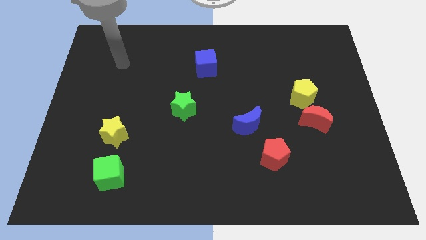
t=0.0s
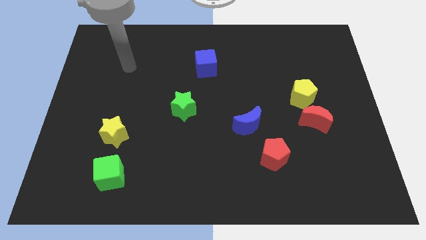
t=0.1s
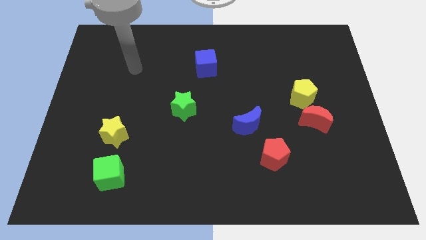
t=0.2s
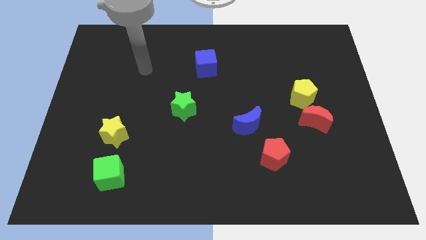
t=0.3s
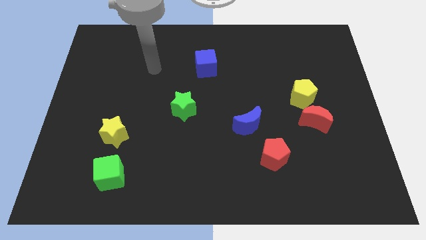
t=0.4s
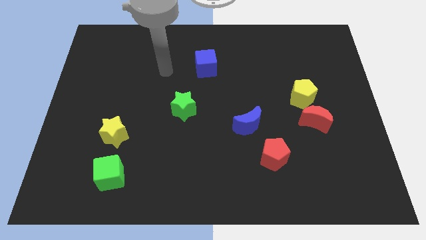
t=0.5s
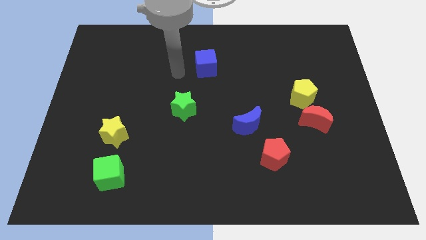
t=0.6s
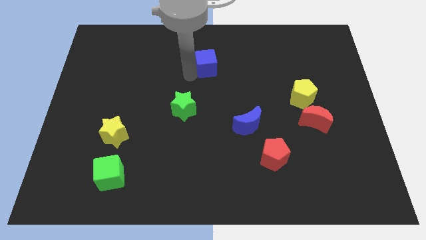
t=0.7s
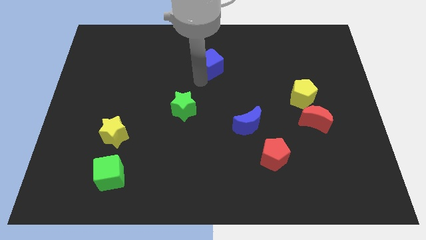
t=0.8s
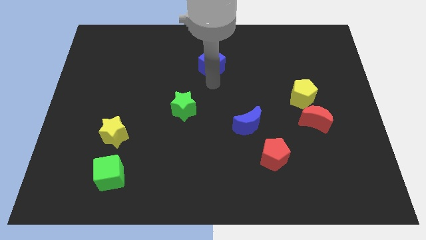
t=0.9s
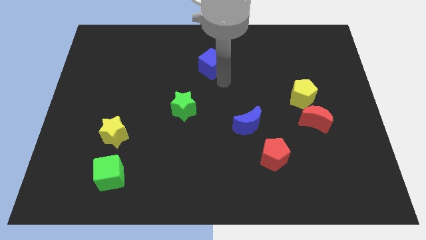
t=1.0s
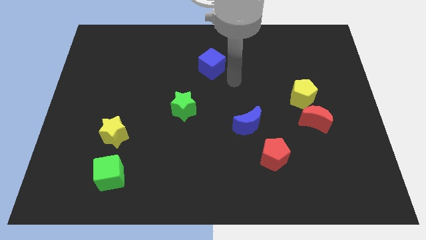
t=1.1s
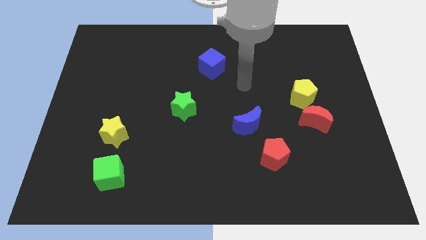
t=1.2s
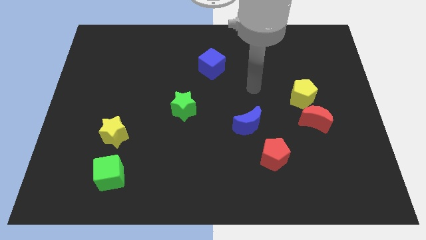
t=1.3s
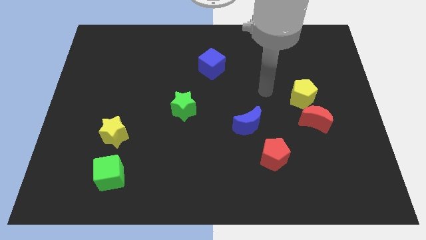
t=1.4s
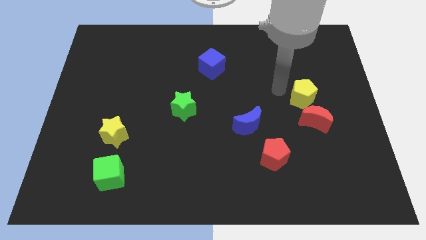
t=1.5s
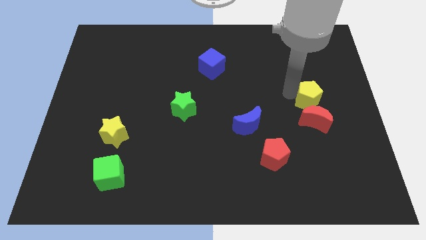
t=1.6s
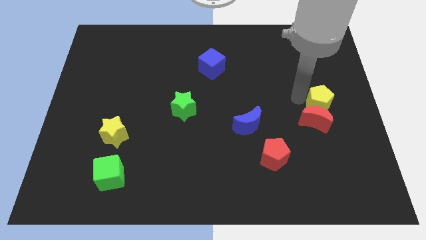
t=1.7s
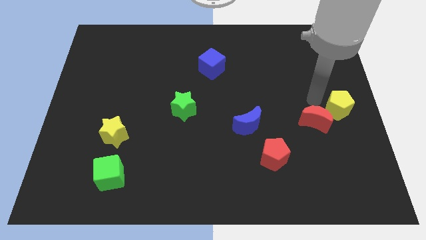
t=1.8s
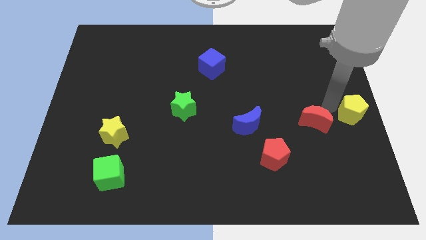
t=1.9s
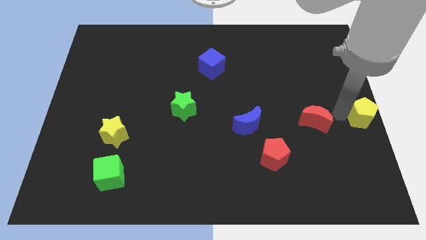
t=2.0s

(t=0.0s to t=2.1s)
move the red moon away from the yellow pentagon

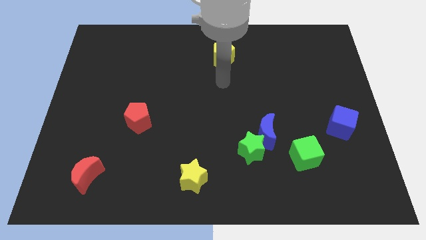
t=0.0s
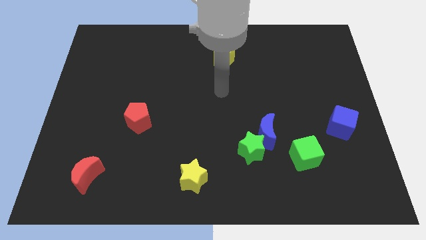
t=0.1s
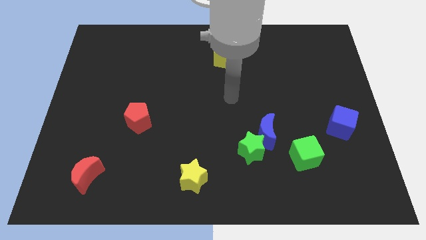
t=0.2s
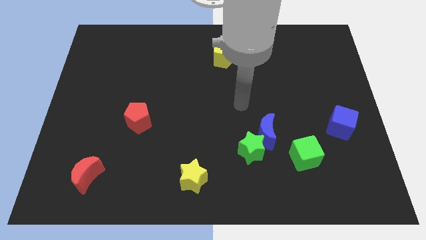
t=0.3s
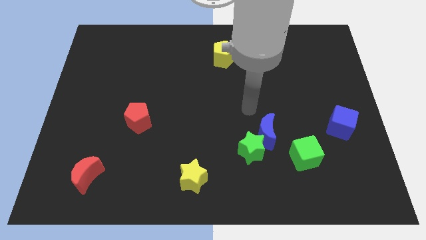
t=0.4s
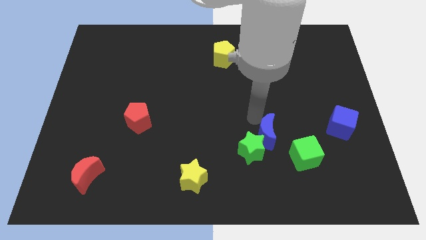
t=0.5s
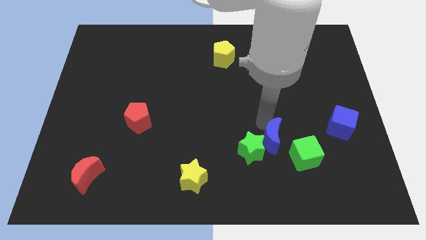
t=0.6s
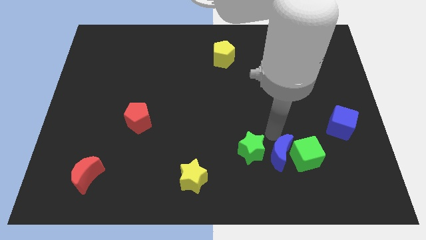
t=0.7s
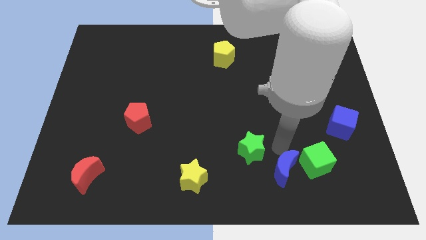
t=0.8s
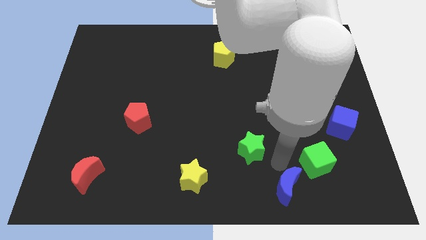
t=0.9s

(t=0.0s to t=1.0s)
separate the green star from the blue moon

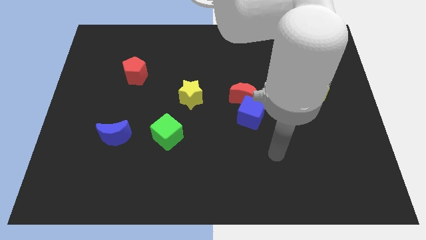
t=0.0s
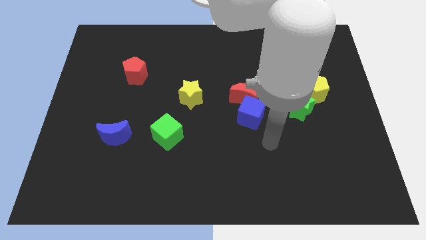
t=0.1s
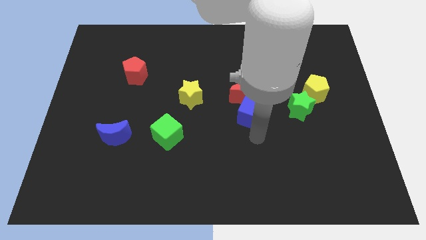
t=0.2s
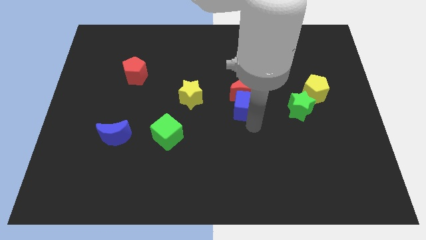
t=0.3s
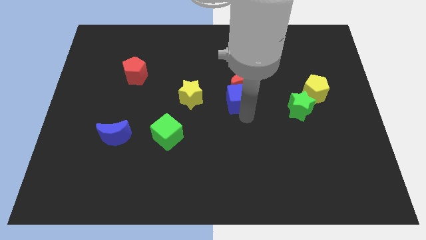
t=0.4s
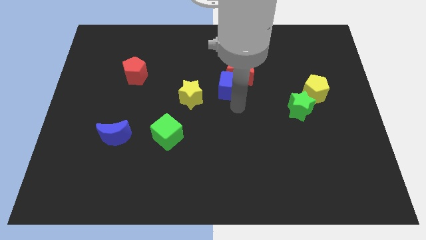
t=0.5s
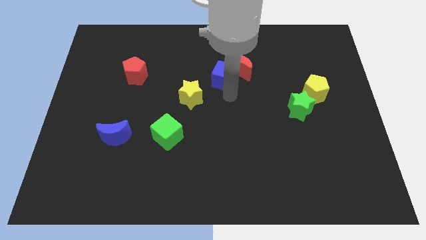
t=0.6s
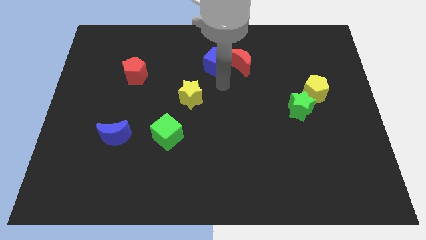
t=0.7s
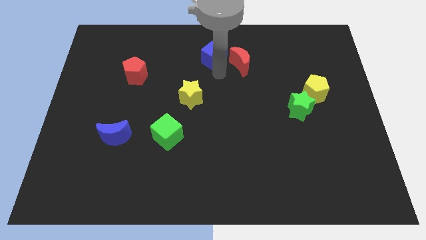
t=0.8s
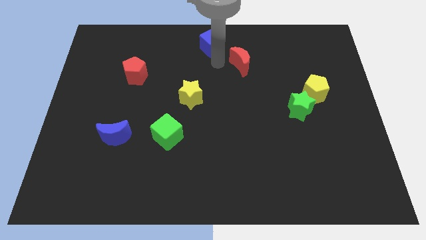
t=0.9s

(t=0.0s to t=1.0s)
move the red moon away from the blue cube

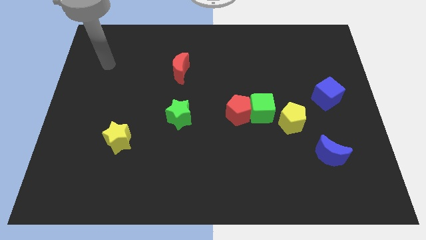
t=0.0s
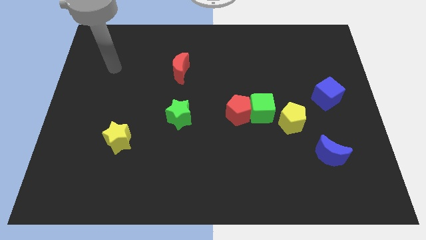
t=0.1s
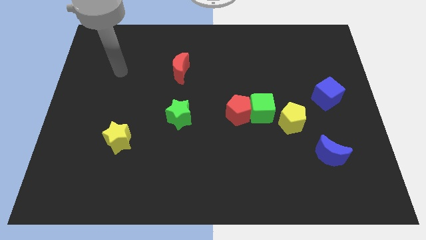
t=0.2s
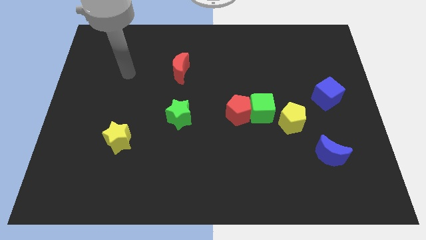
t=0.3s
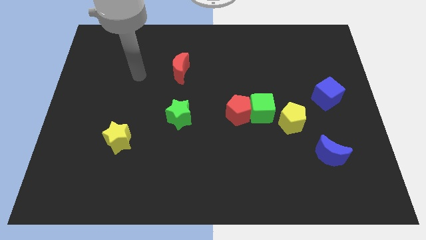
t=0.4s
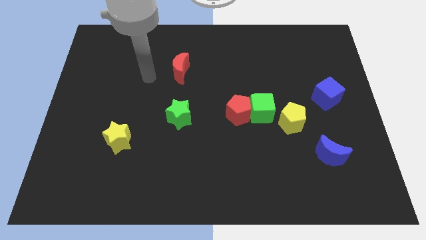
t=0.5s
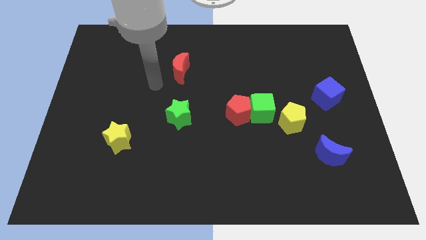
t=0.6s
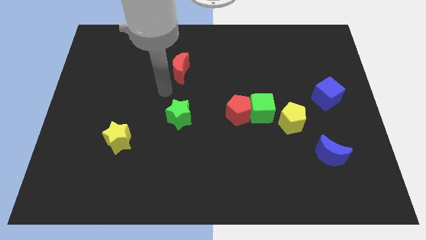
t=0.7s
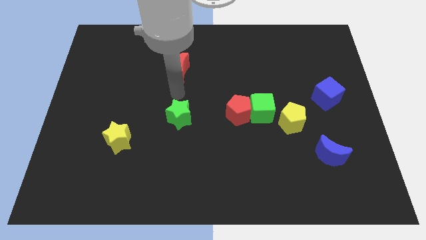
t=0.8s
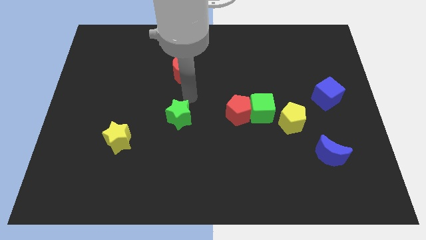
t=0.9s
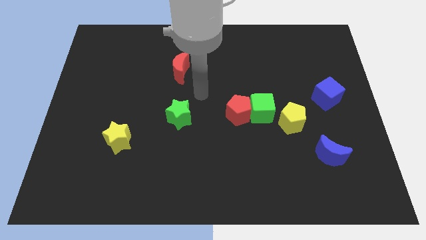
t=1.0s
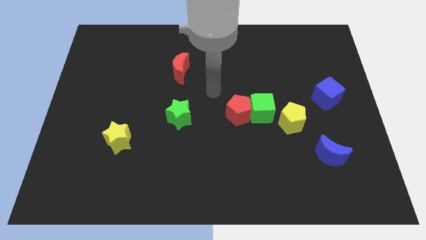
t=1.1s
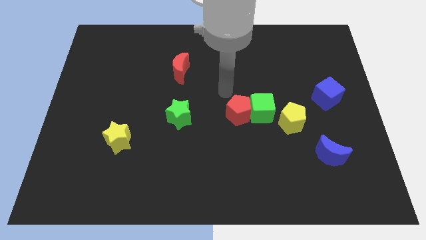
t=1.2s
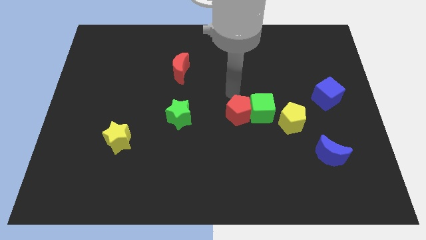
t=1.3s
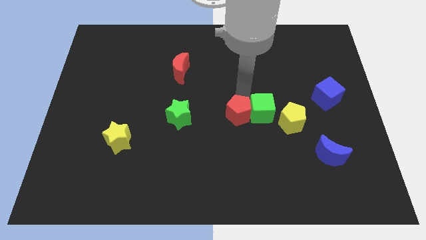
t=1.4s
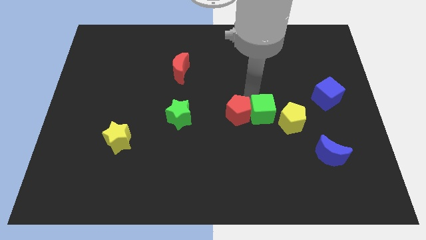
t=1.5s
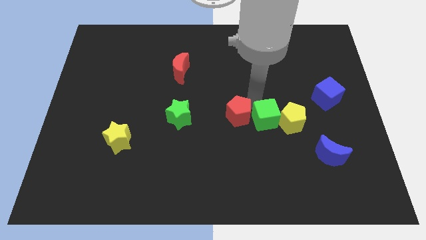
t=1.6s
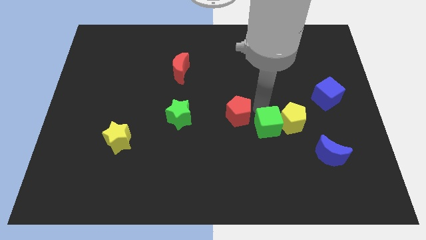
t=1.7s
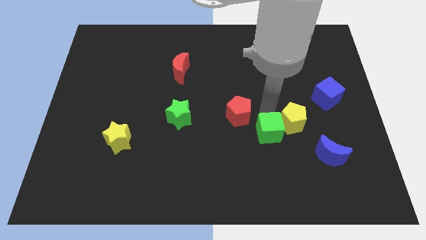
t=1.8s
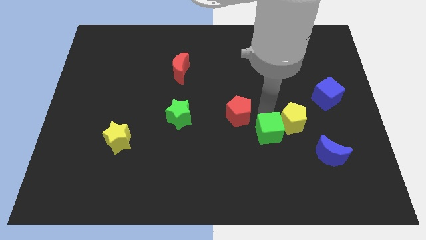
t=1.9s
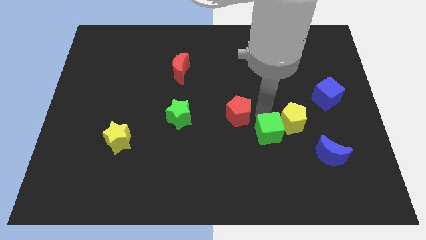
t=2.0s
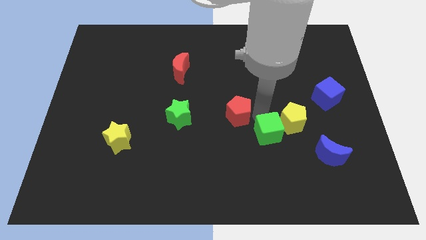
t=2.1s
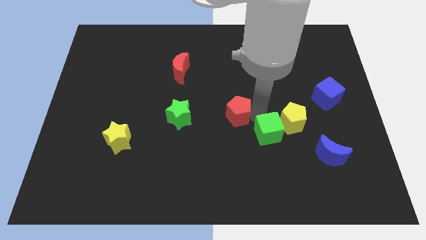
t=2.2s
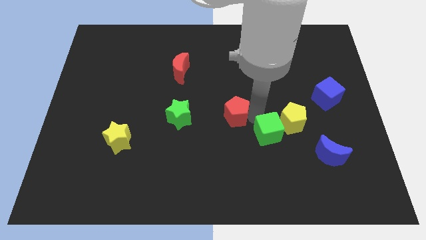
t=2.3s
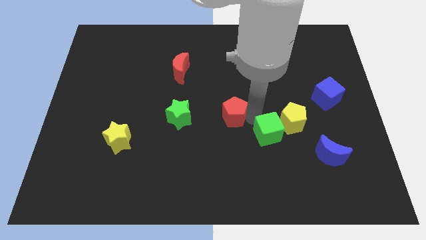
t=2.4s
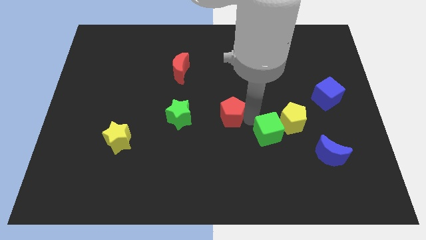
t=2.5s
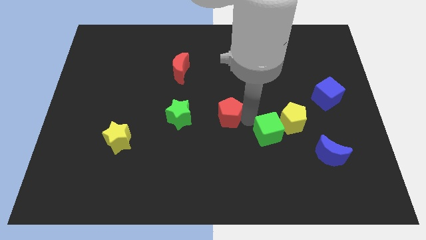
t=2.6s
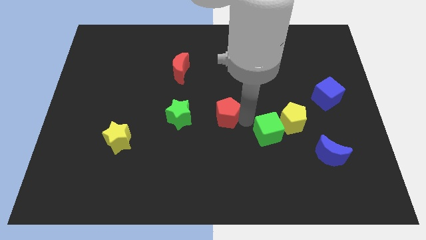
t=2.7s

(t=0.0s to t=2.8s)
pull the red pentagon apart from the green cube

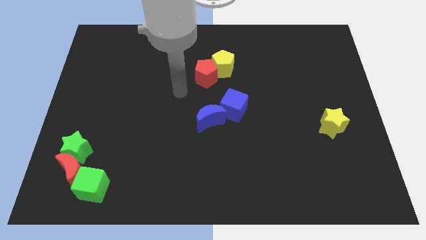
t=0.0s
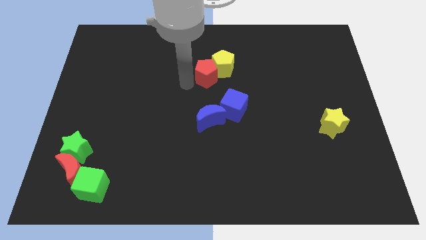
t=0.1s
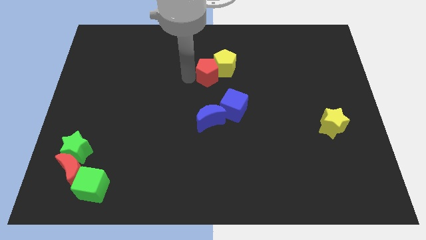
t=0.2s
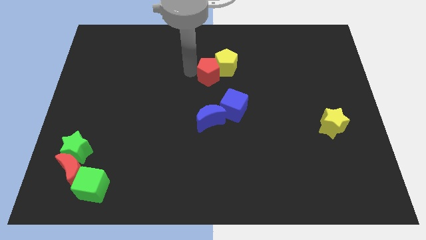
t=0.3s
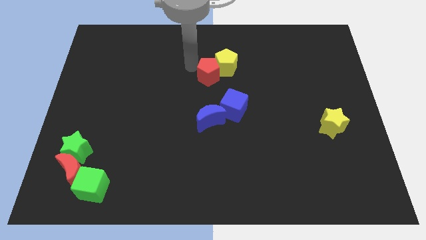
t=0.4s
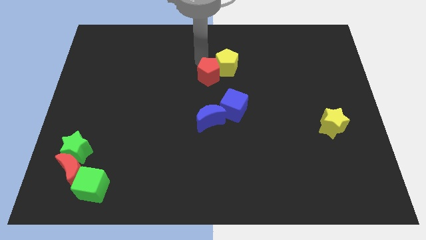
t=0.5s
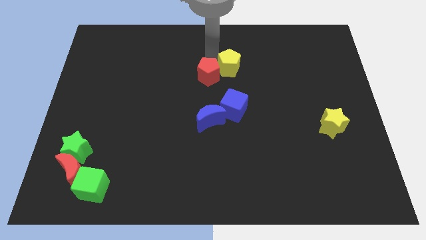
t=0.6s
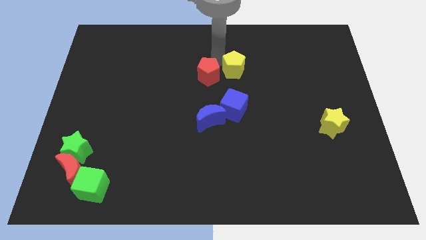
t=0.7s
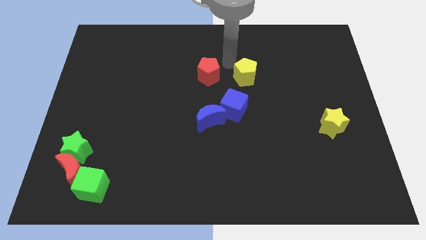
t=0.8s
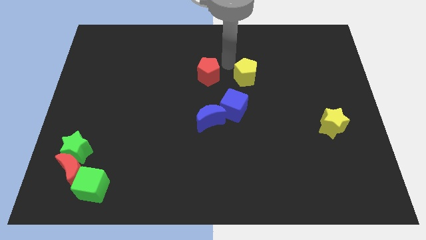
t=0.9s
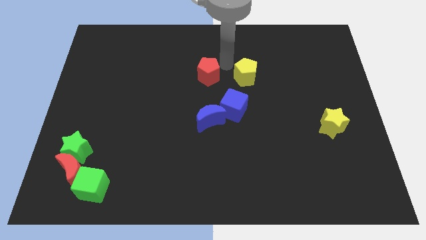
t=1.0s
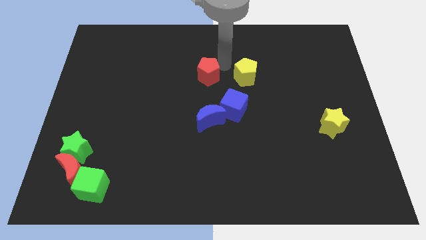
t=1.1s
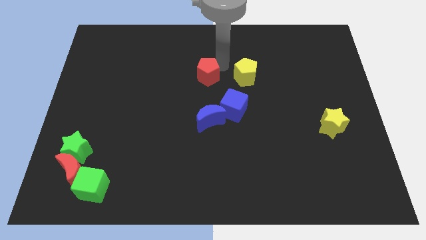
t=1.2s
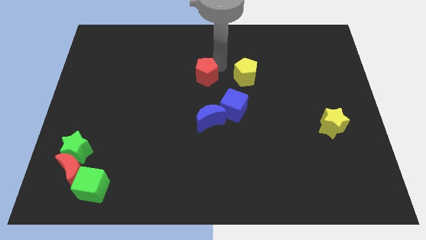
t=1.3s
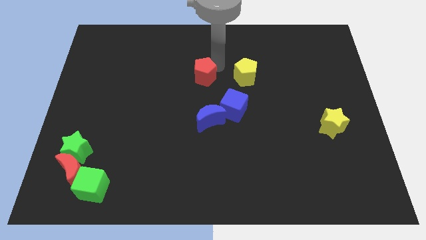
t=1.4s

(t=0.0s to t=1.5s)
move the red pentagon away from the yellow pentagon

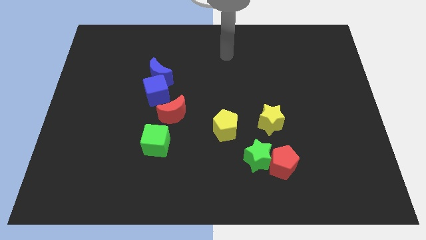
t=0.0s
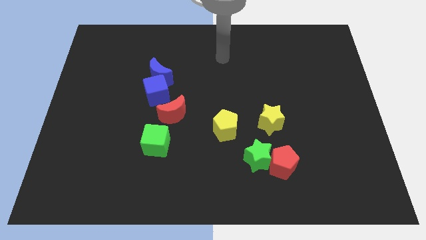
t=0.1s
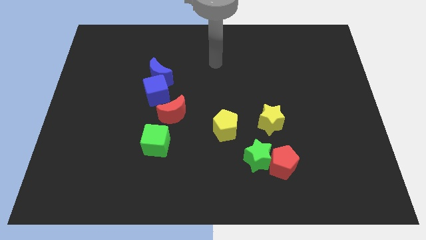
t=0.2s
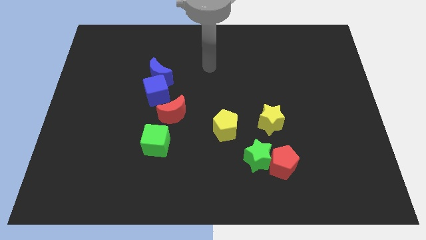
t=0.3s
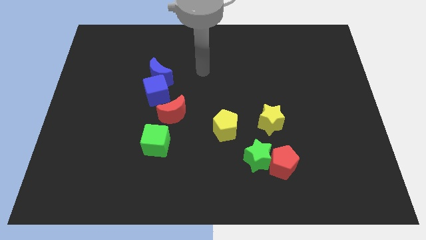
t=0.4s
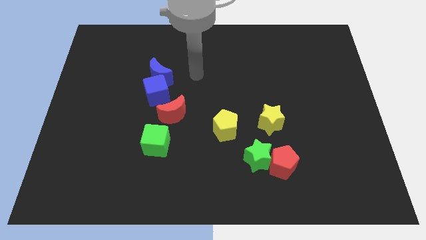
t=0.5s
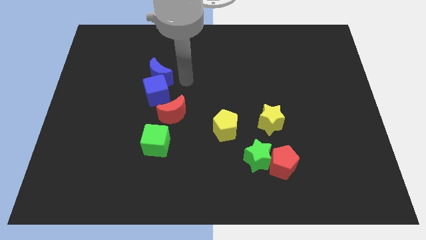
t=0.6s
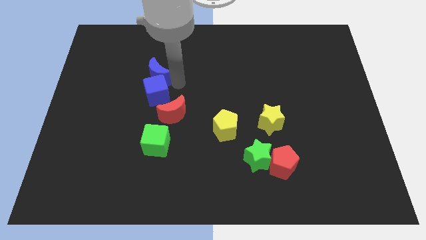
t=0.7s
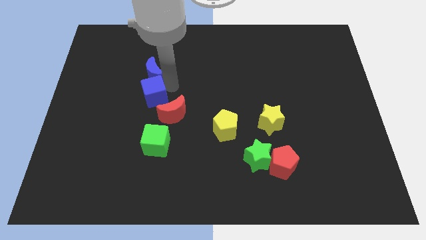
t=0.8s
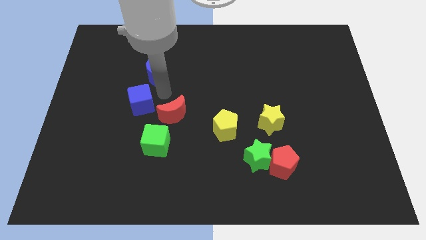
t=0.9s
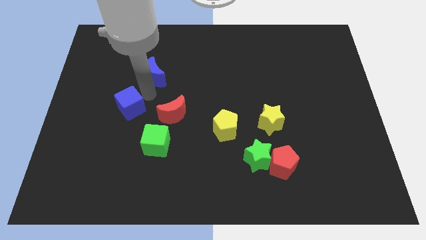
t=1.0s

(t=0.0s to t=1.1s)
move the blue moon away from the blue cube
